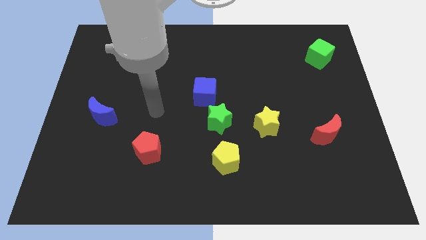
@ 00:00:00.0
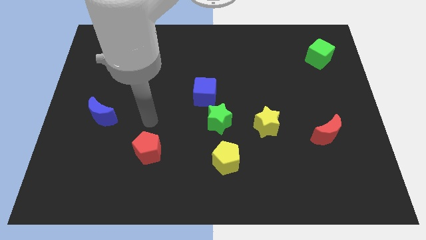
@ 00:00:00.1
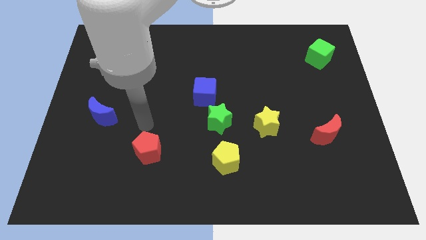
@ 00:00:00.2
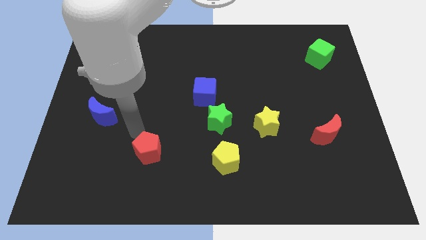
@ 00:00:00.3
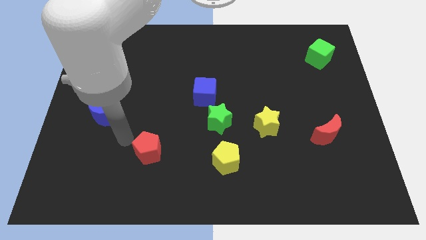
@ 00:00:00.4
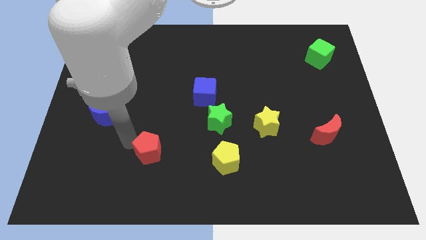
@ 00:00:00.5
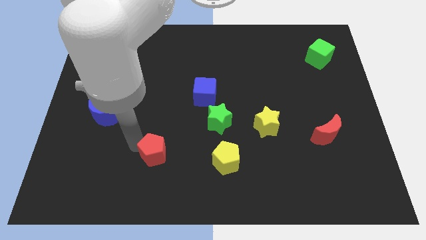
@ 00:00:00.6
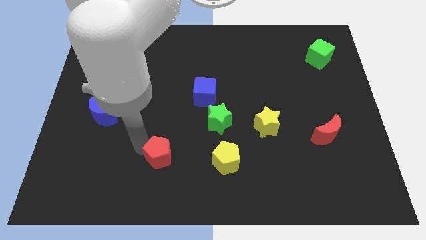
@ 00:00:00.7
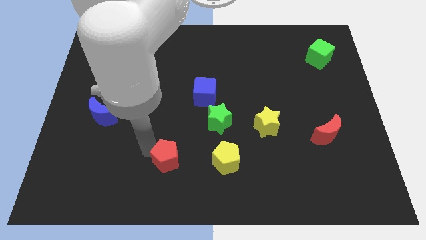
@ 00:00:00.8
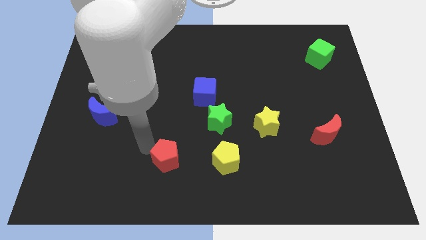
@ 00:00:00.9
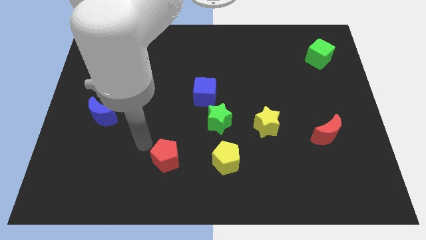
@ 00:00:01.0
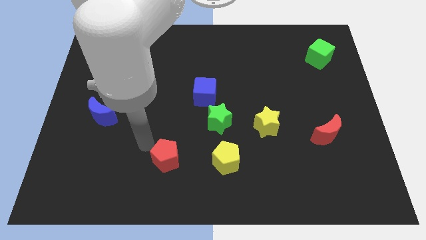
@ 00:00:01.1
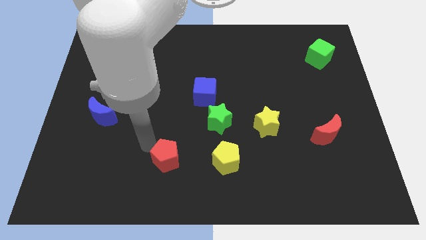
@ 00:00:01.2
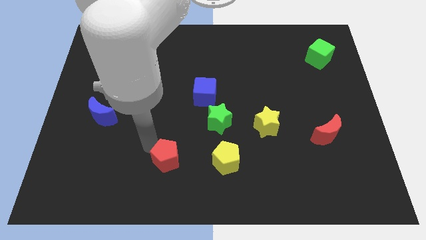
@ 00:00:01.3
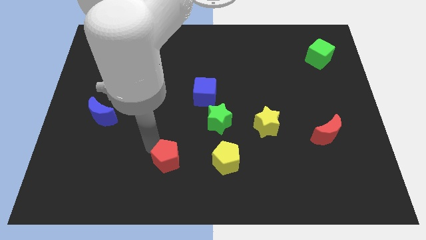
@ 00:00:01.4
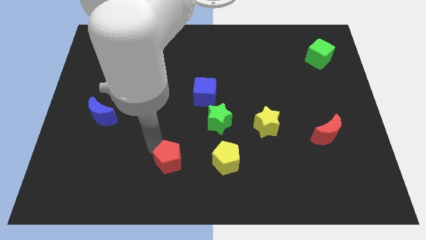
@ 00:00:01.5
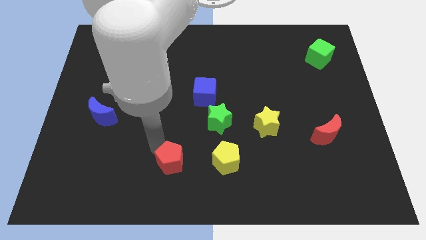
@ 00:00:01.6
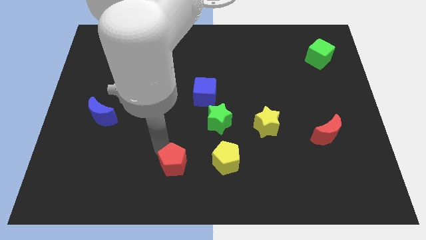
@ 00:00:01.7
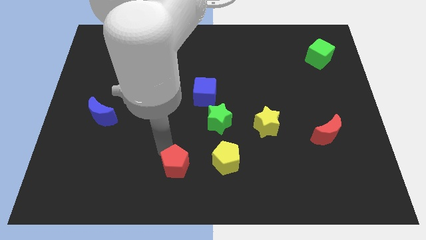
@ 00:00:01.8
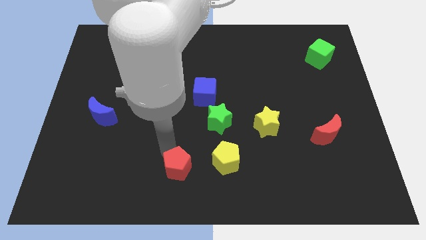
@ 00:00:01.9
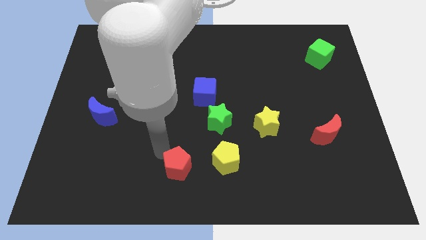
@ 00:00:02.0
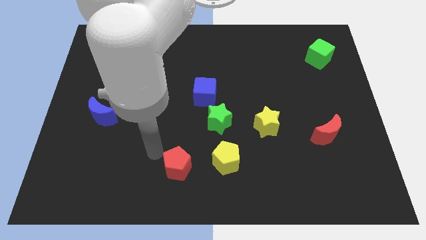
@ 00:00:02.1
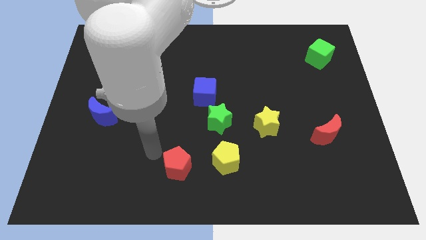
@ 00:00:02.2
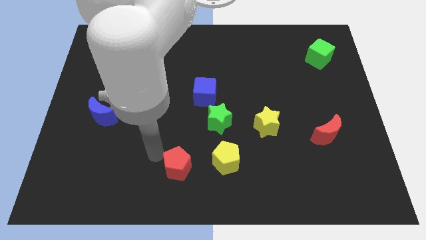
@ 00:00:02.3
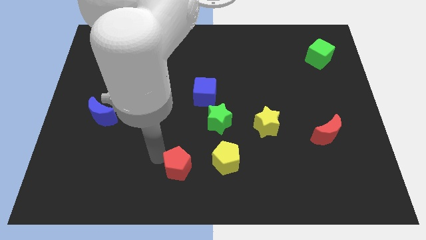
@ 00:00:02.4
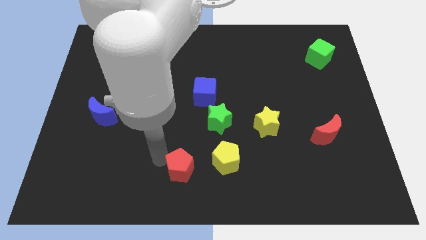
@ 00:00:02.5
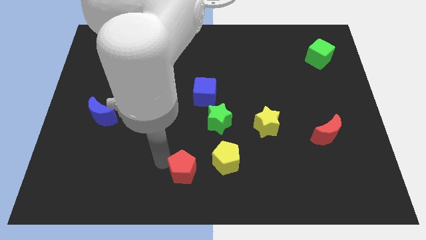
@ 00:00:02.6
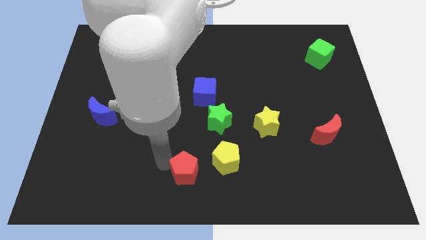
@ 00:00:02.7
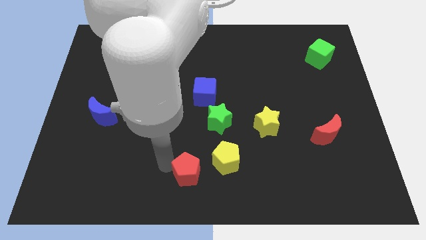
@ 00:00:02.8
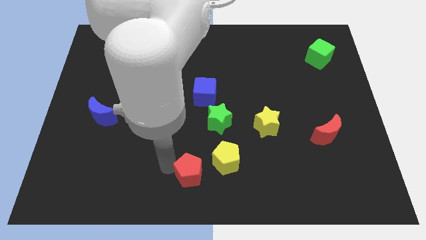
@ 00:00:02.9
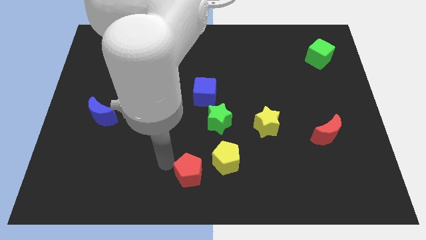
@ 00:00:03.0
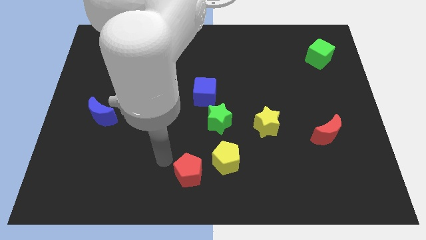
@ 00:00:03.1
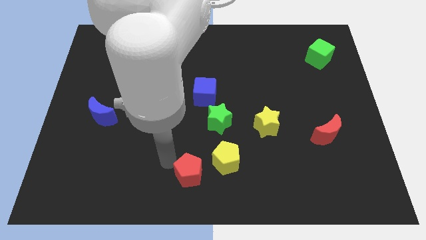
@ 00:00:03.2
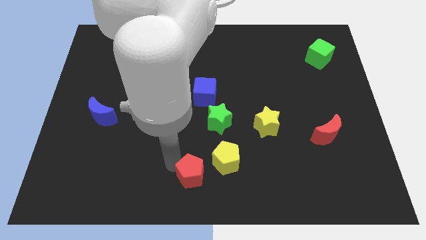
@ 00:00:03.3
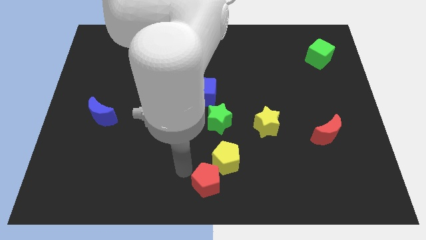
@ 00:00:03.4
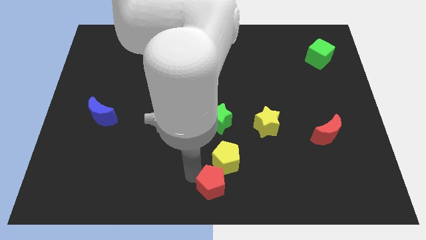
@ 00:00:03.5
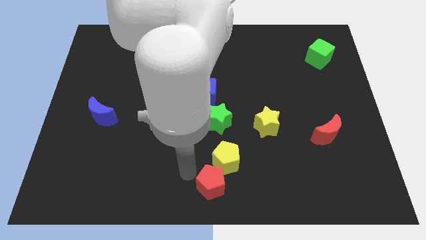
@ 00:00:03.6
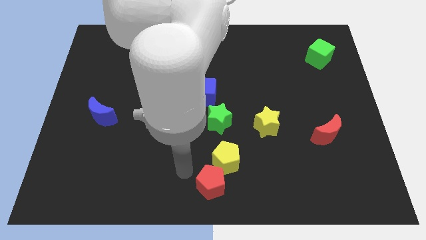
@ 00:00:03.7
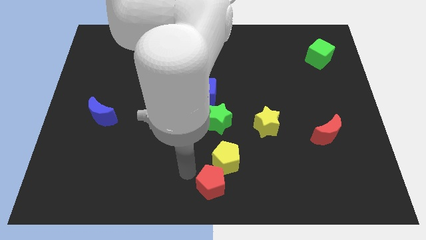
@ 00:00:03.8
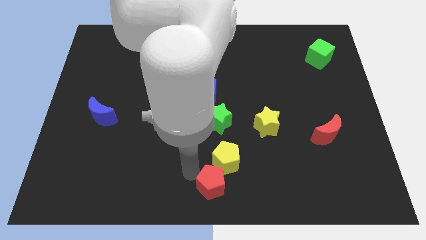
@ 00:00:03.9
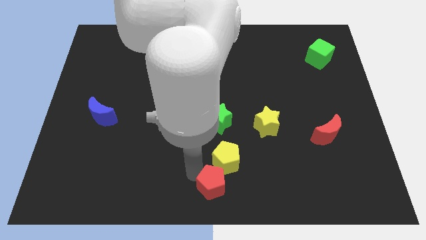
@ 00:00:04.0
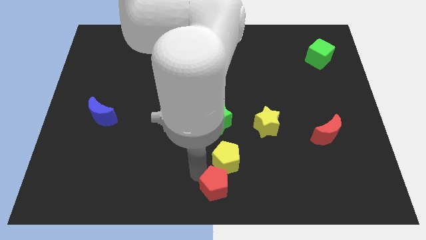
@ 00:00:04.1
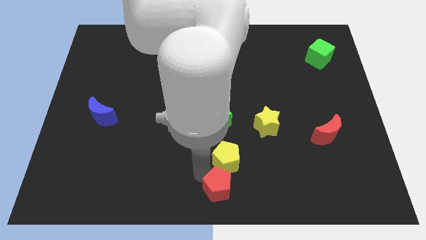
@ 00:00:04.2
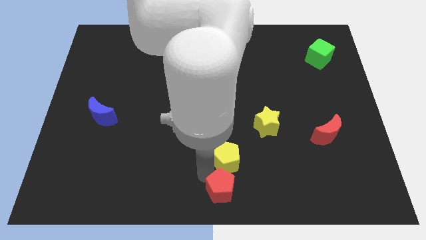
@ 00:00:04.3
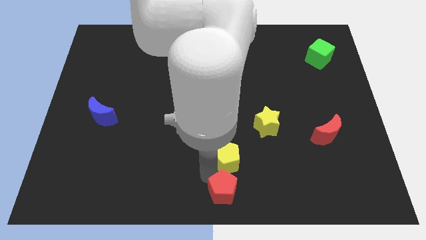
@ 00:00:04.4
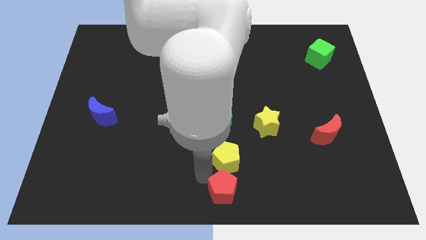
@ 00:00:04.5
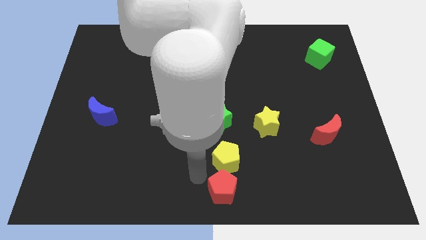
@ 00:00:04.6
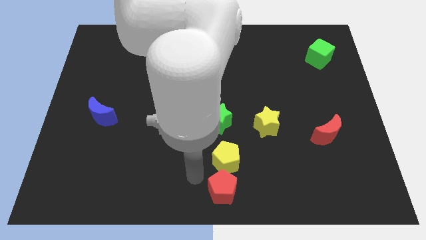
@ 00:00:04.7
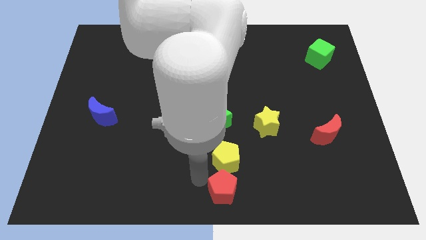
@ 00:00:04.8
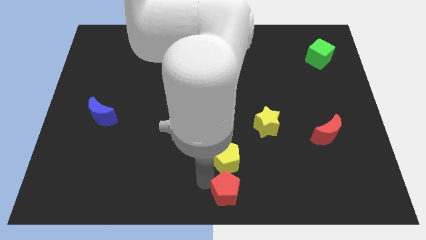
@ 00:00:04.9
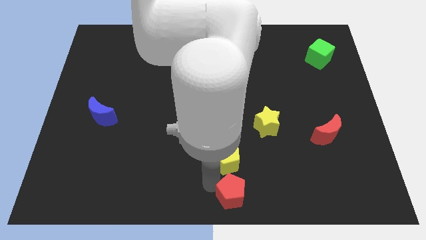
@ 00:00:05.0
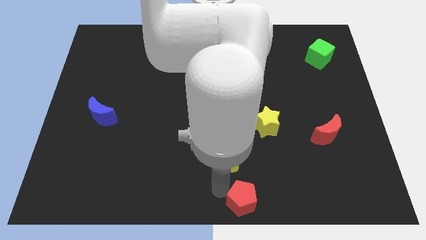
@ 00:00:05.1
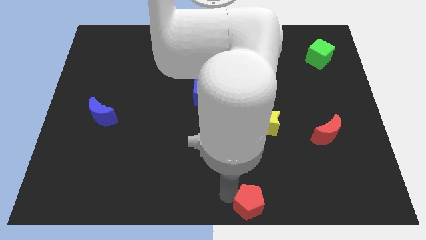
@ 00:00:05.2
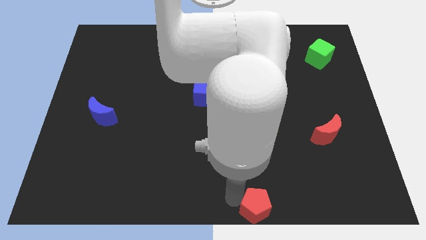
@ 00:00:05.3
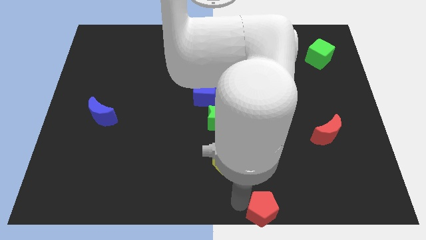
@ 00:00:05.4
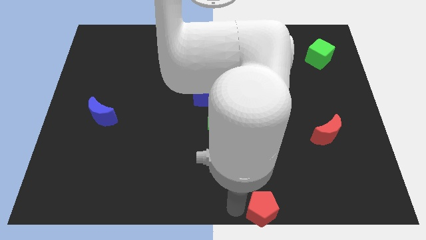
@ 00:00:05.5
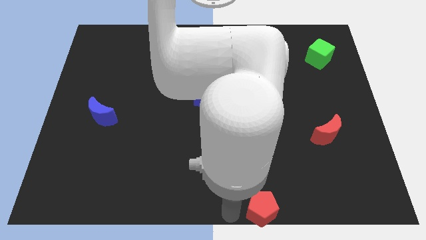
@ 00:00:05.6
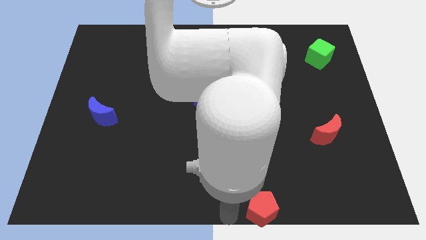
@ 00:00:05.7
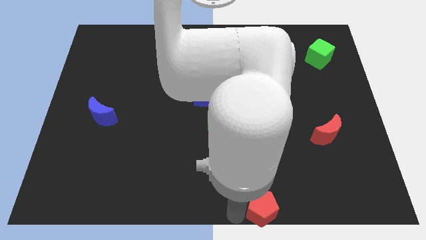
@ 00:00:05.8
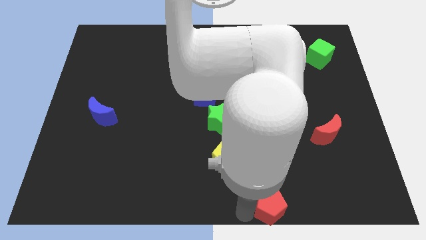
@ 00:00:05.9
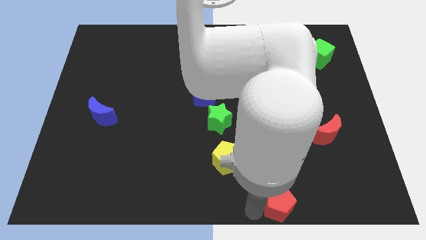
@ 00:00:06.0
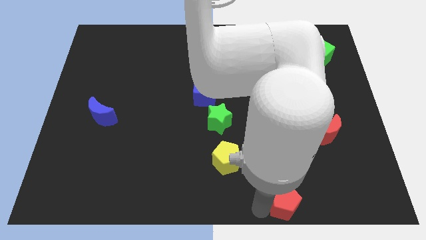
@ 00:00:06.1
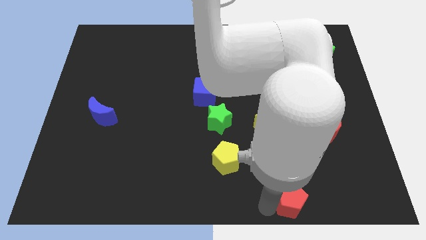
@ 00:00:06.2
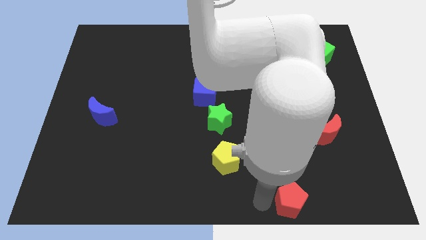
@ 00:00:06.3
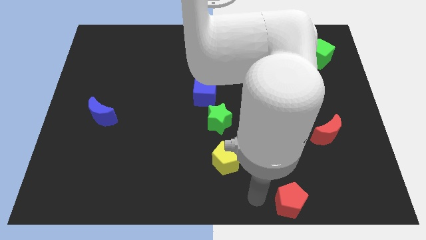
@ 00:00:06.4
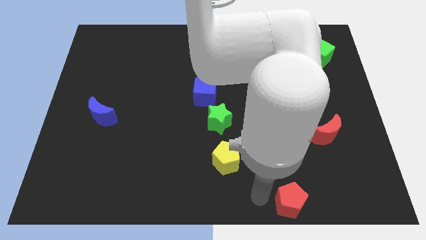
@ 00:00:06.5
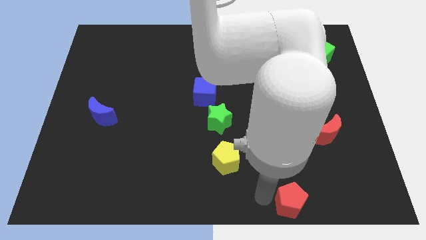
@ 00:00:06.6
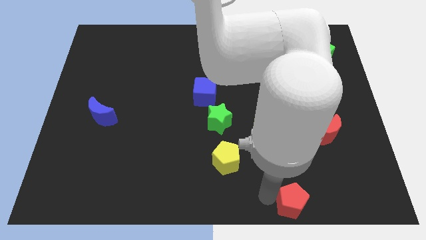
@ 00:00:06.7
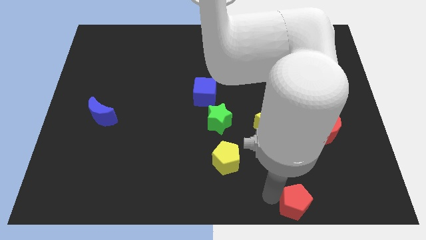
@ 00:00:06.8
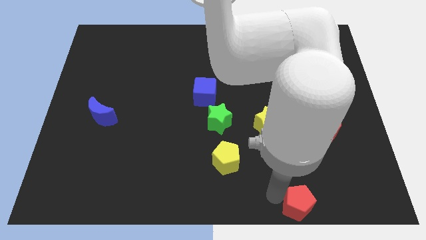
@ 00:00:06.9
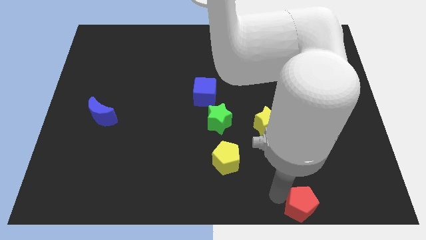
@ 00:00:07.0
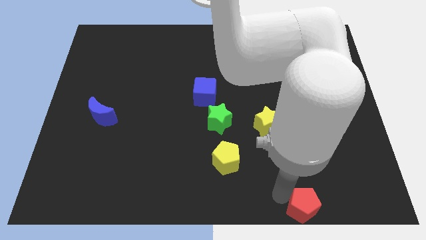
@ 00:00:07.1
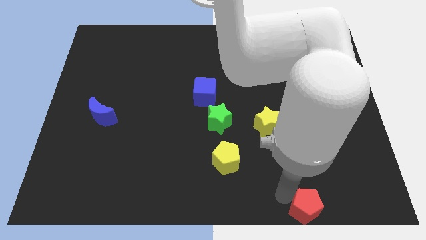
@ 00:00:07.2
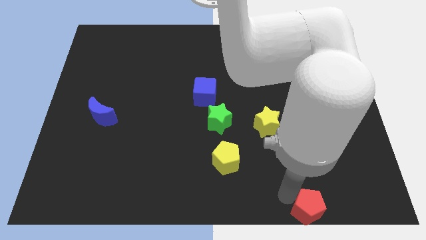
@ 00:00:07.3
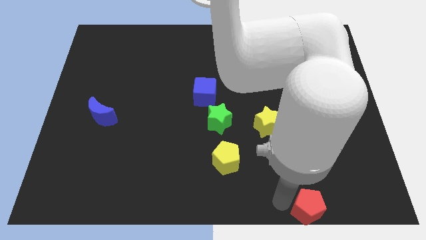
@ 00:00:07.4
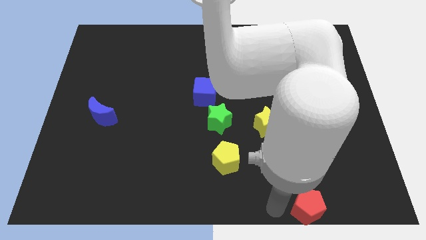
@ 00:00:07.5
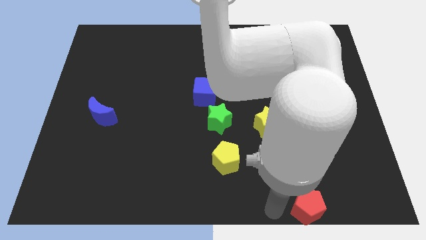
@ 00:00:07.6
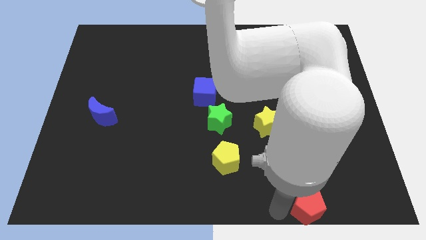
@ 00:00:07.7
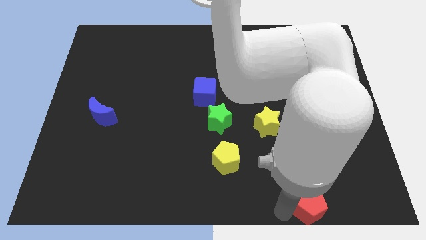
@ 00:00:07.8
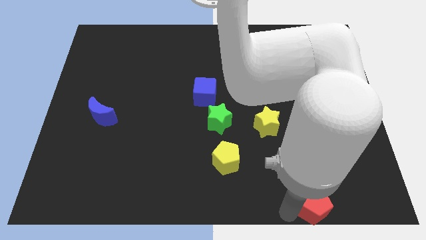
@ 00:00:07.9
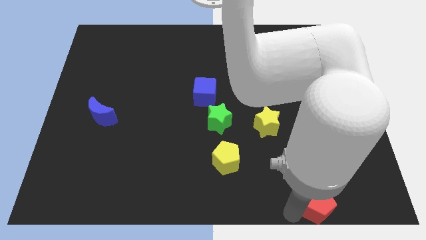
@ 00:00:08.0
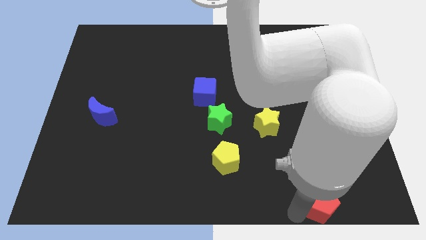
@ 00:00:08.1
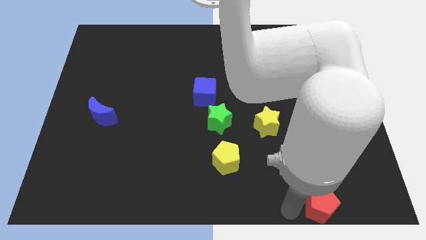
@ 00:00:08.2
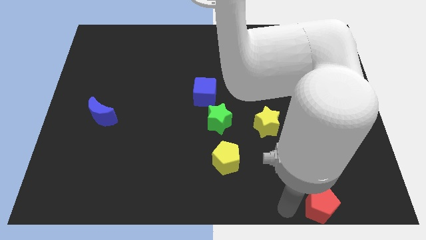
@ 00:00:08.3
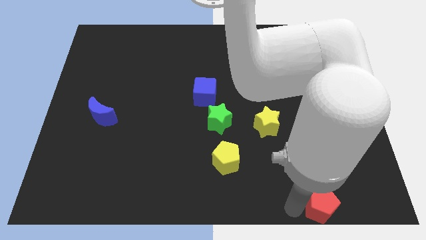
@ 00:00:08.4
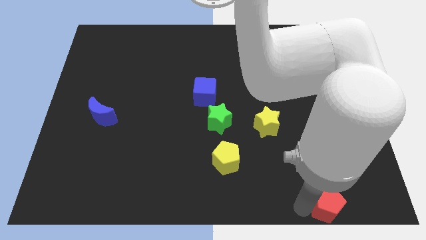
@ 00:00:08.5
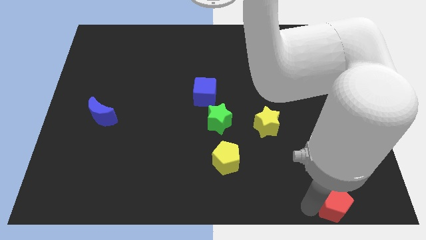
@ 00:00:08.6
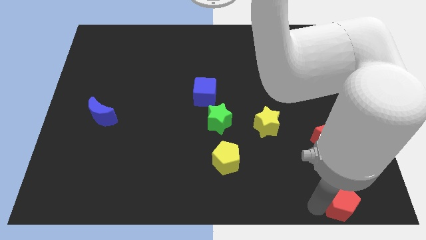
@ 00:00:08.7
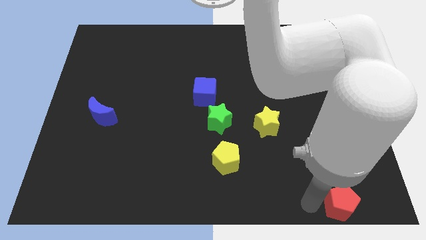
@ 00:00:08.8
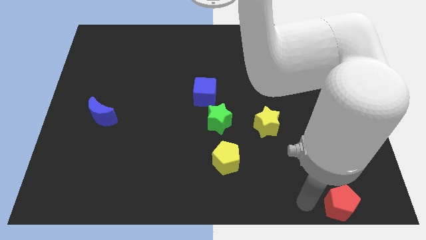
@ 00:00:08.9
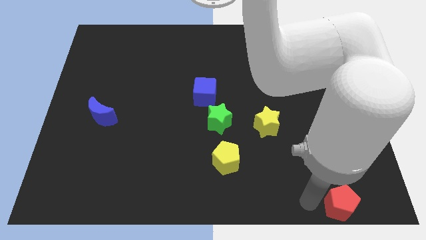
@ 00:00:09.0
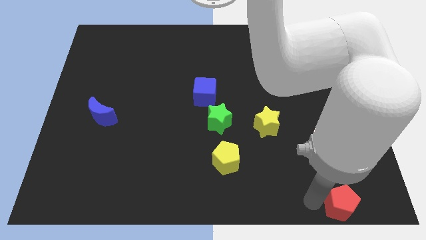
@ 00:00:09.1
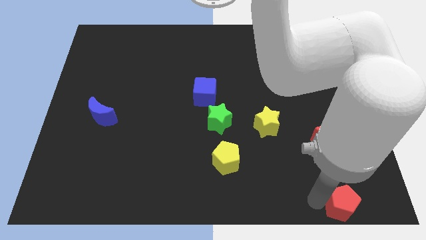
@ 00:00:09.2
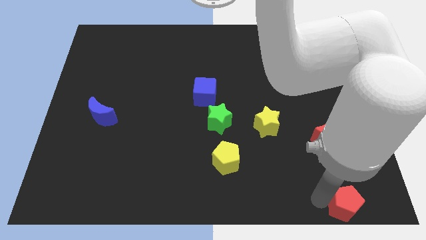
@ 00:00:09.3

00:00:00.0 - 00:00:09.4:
push the red pentagon to the lower right corner
